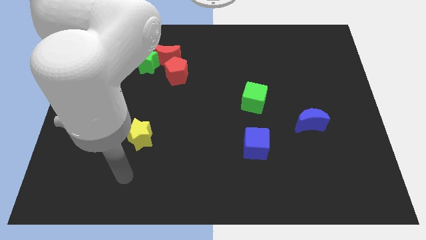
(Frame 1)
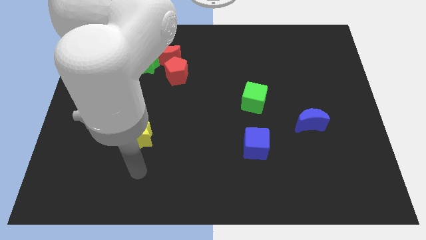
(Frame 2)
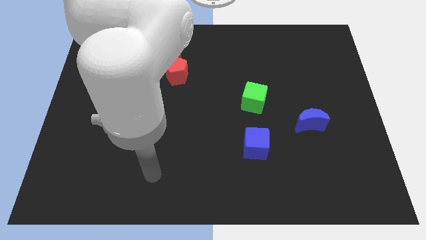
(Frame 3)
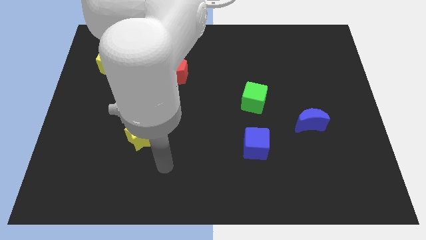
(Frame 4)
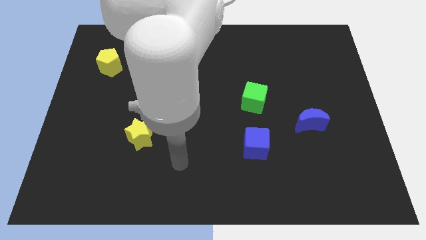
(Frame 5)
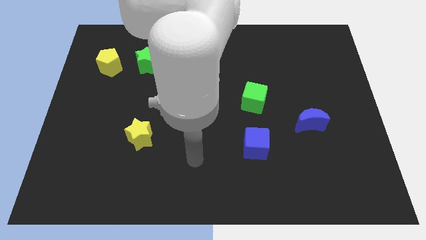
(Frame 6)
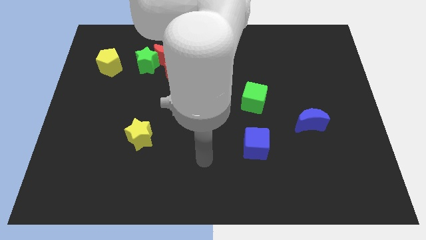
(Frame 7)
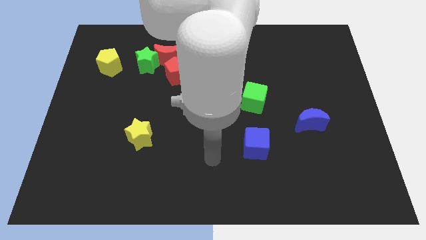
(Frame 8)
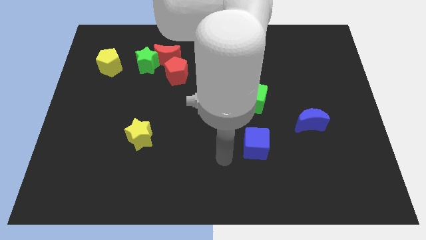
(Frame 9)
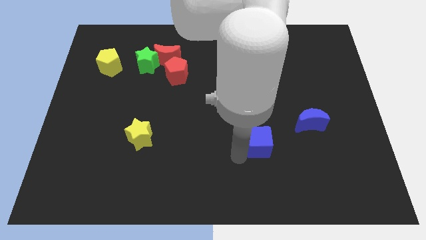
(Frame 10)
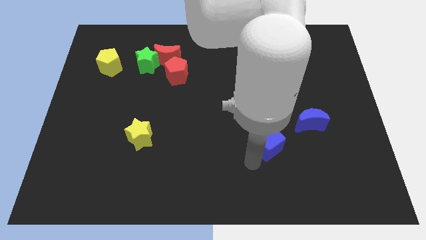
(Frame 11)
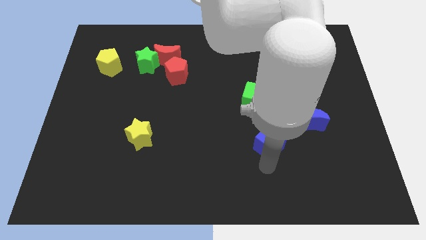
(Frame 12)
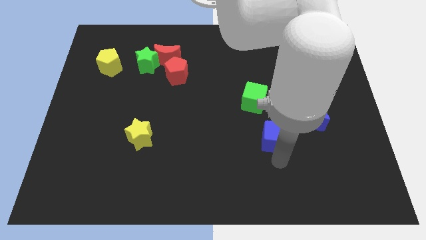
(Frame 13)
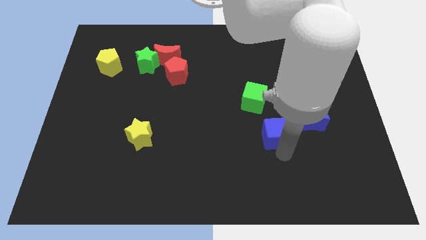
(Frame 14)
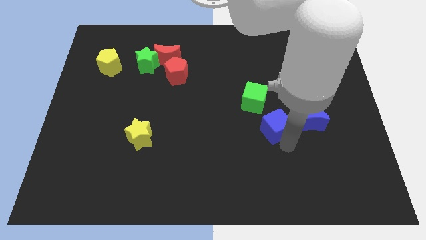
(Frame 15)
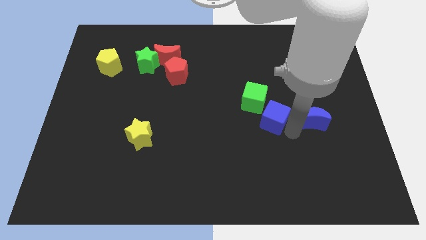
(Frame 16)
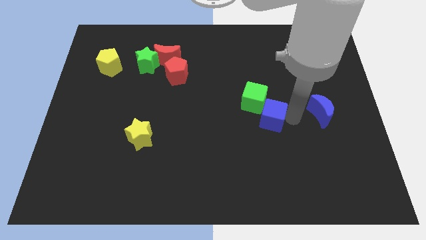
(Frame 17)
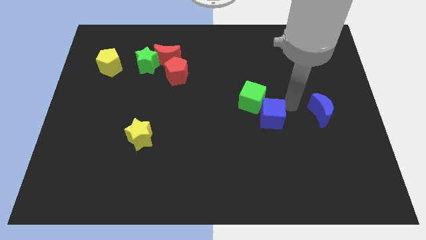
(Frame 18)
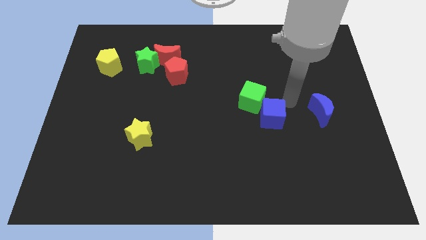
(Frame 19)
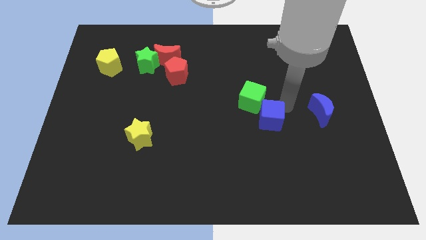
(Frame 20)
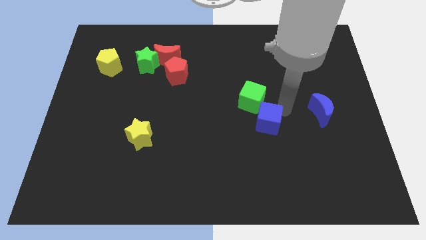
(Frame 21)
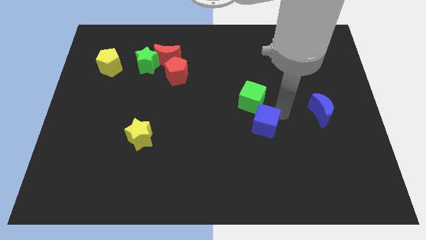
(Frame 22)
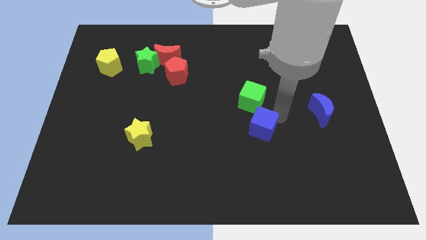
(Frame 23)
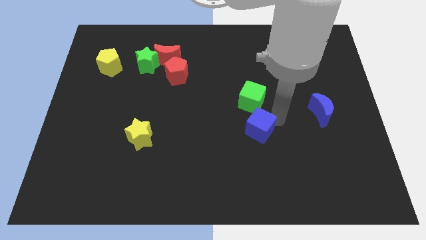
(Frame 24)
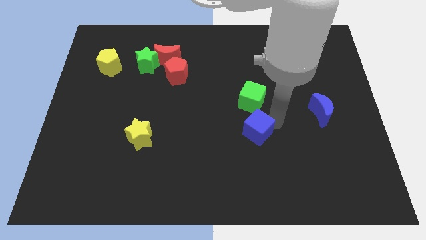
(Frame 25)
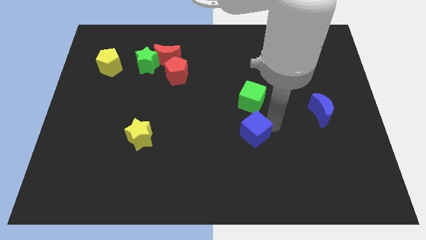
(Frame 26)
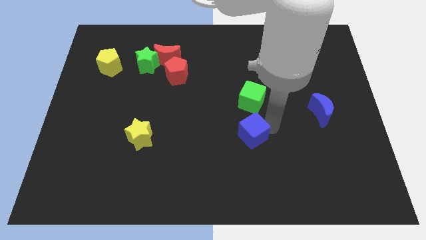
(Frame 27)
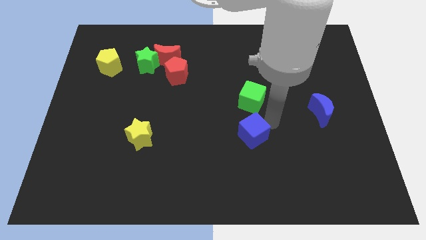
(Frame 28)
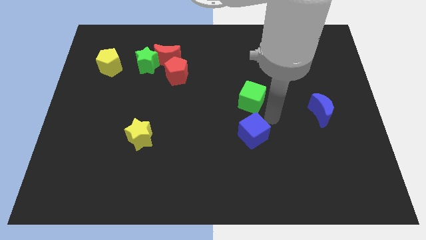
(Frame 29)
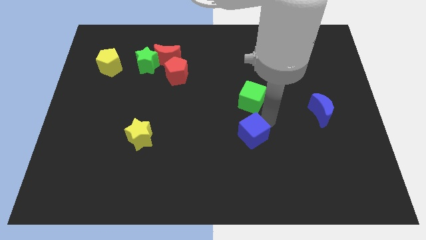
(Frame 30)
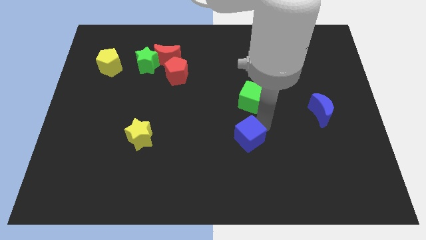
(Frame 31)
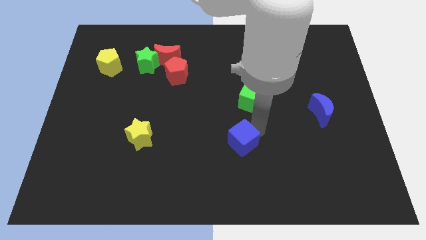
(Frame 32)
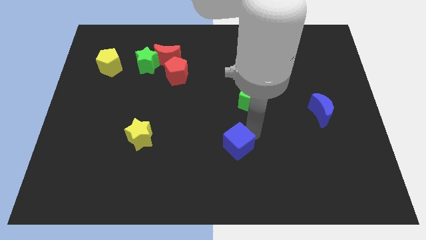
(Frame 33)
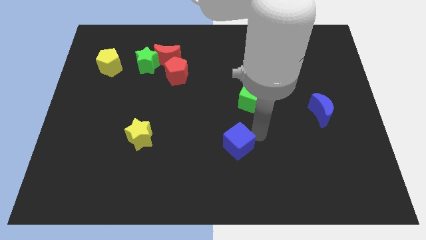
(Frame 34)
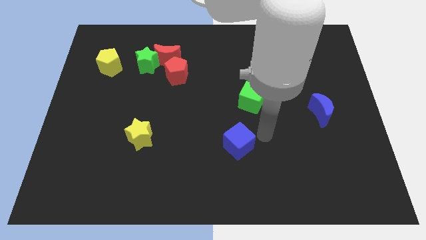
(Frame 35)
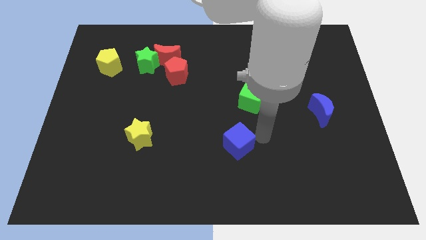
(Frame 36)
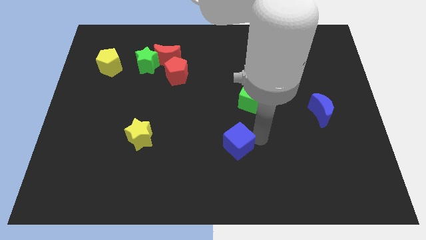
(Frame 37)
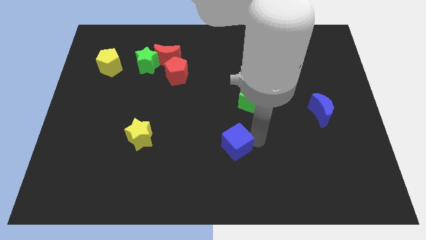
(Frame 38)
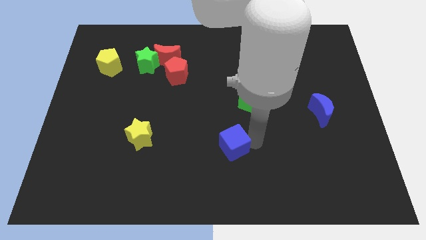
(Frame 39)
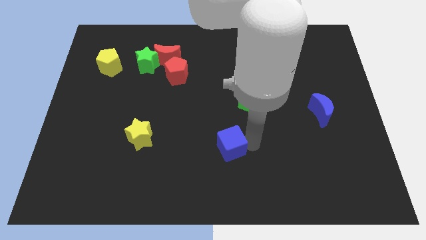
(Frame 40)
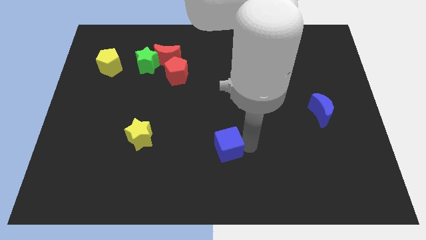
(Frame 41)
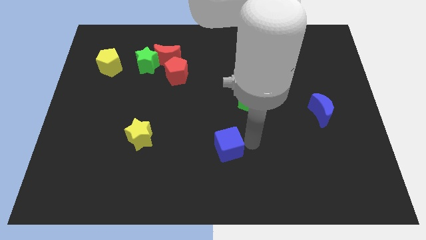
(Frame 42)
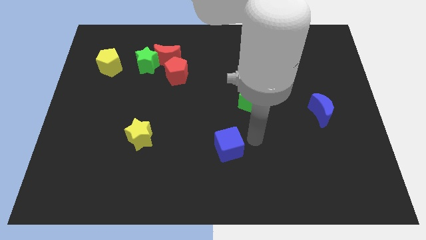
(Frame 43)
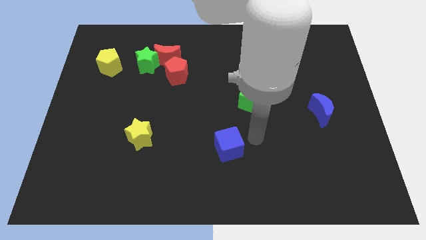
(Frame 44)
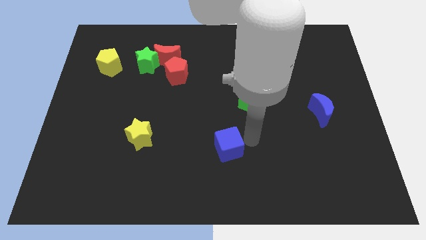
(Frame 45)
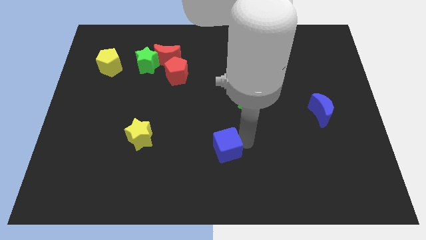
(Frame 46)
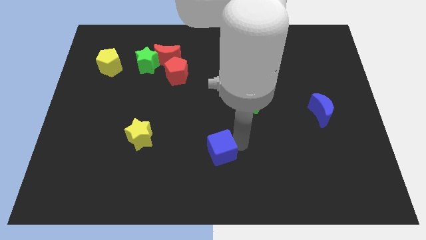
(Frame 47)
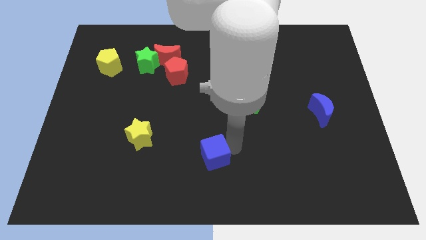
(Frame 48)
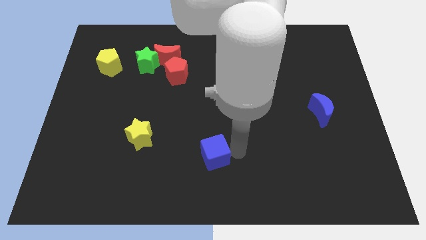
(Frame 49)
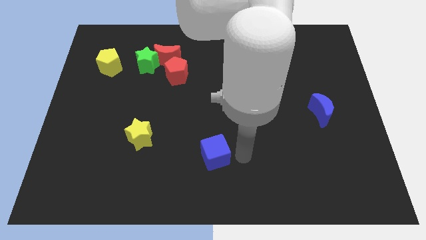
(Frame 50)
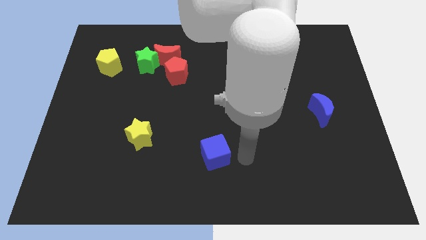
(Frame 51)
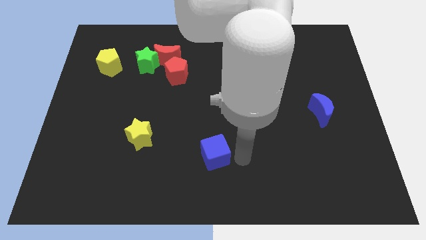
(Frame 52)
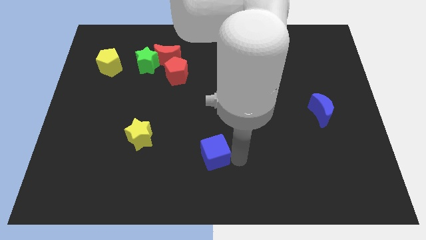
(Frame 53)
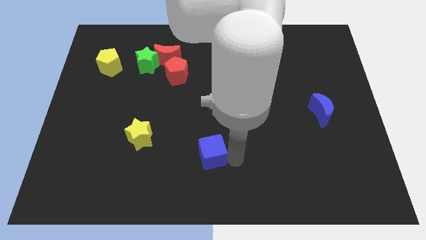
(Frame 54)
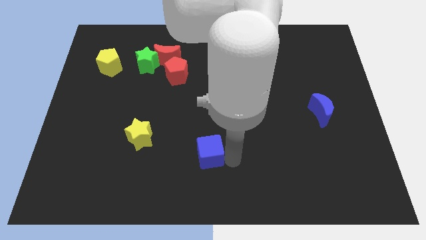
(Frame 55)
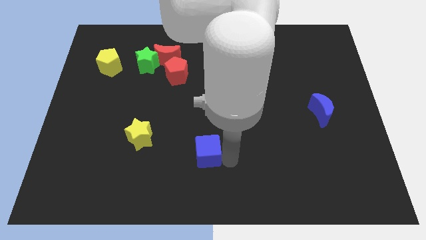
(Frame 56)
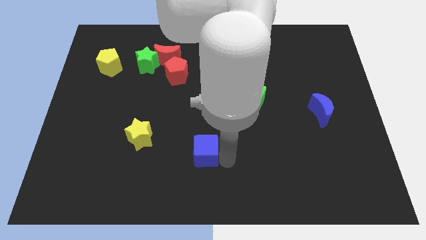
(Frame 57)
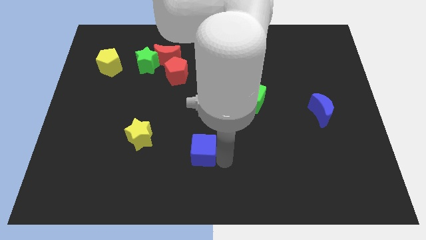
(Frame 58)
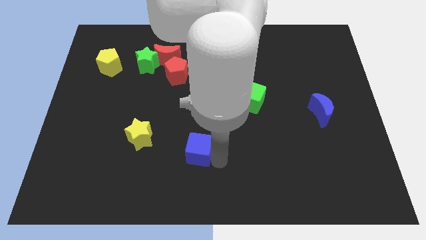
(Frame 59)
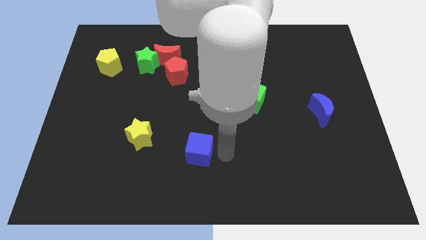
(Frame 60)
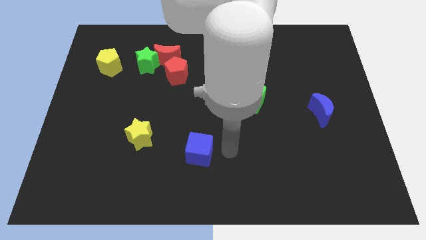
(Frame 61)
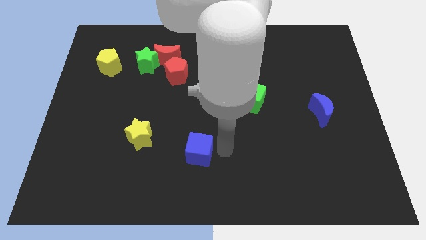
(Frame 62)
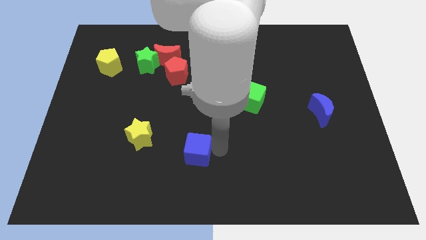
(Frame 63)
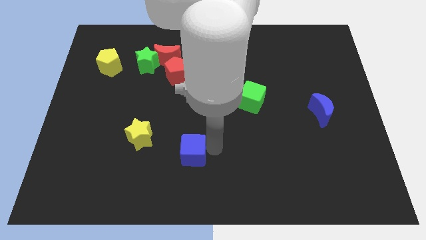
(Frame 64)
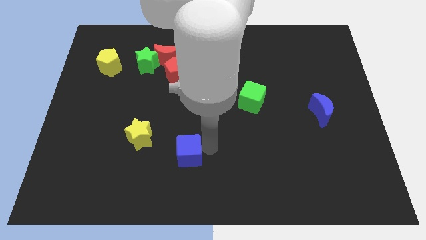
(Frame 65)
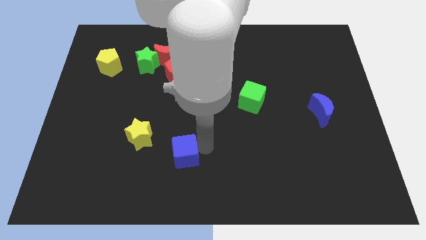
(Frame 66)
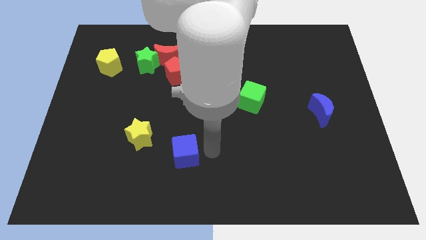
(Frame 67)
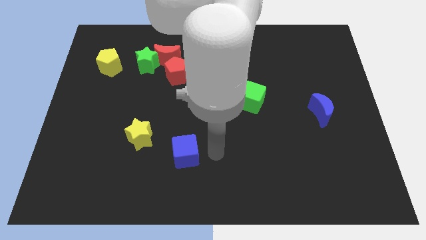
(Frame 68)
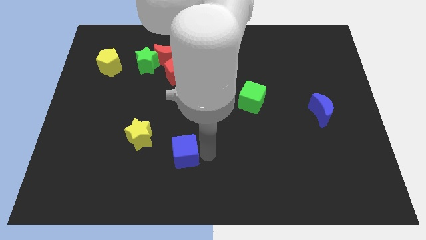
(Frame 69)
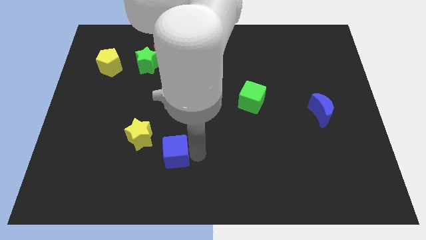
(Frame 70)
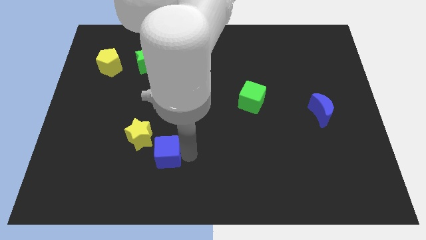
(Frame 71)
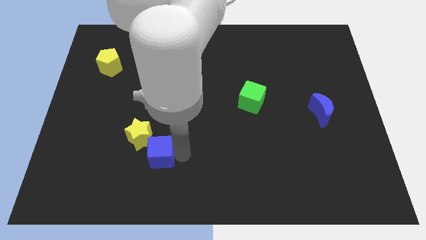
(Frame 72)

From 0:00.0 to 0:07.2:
slide the blue cube to the left

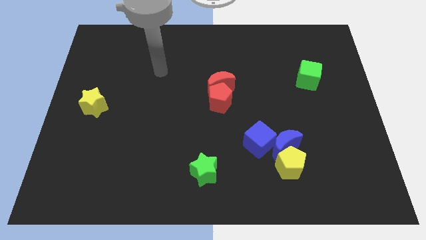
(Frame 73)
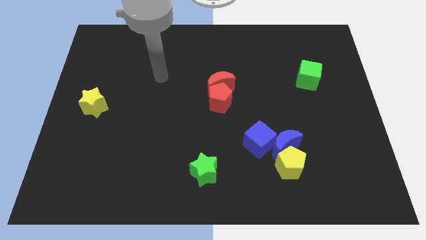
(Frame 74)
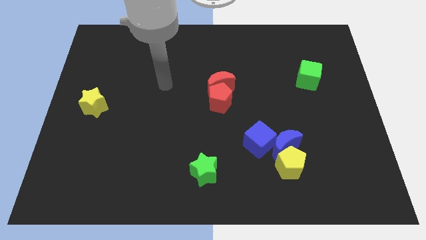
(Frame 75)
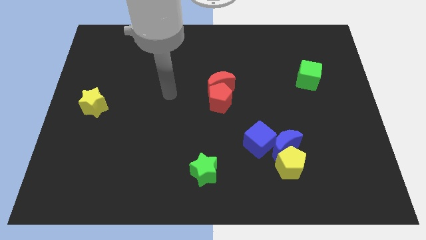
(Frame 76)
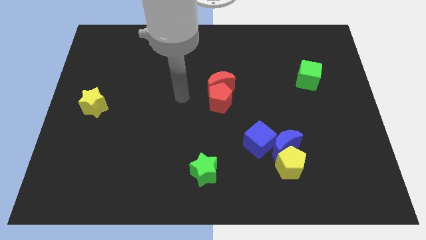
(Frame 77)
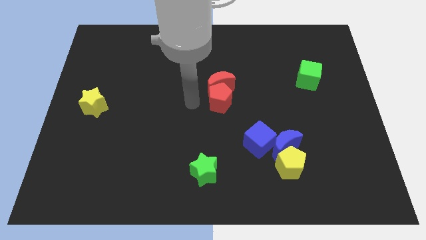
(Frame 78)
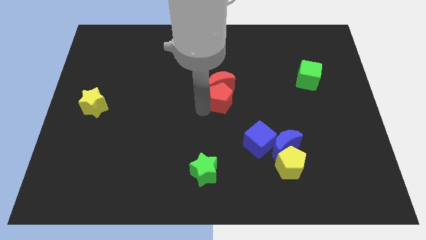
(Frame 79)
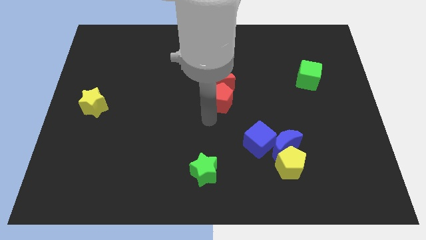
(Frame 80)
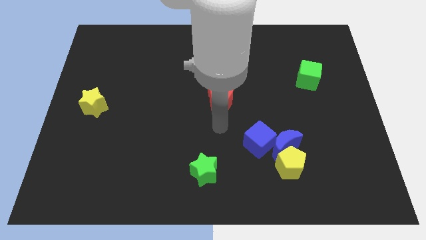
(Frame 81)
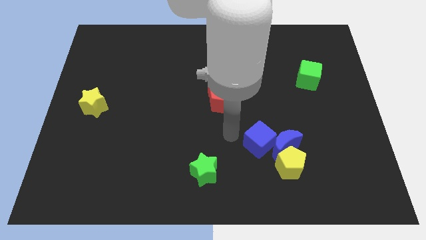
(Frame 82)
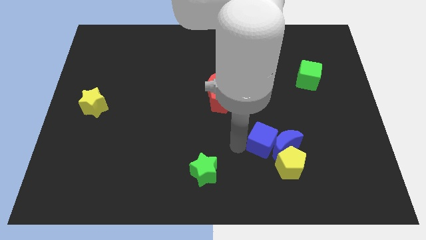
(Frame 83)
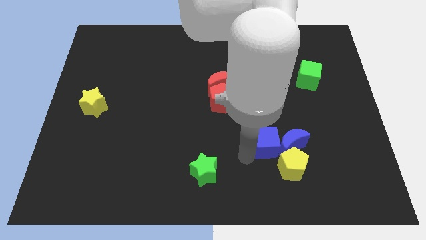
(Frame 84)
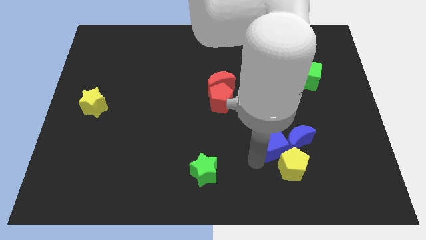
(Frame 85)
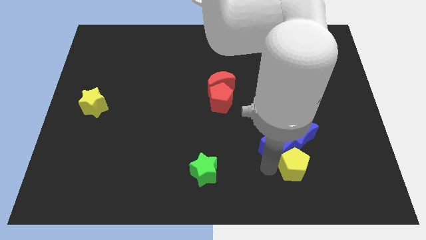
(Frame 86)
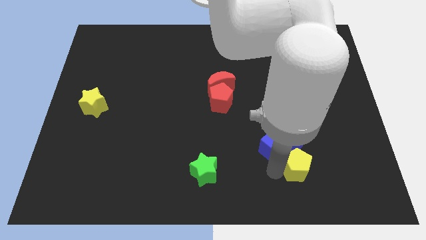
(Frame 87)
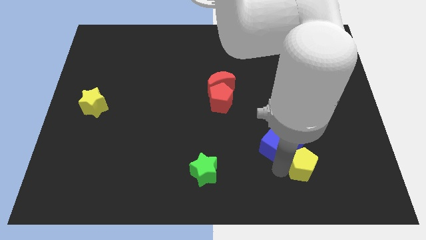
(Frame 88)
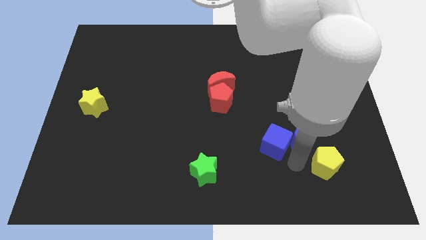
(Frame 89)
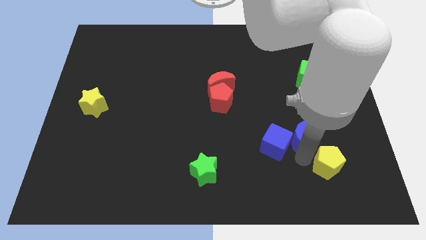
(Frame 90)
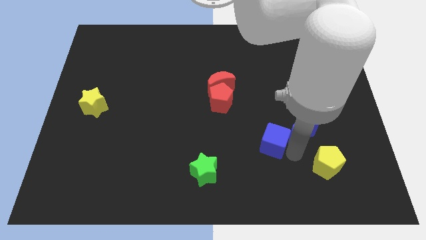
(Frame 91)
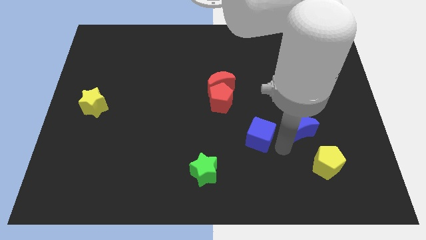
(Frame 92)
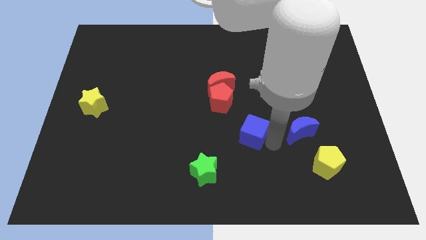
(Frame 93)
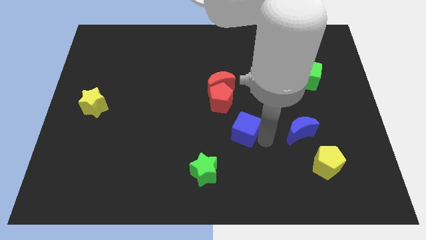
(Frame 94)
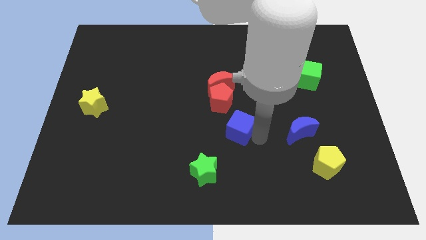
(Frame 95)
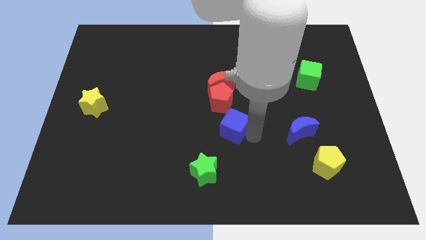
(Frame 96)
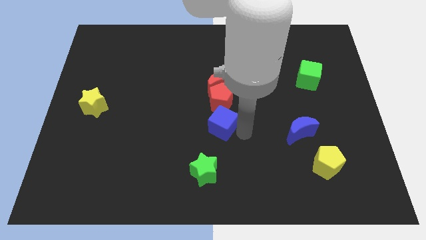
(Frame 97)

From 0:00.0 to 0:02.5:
push the blue cube slightly upwards and to the left diagonally
